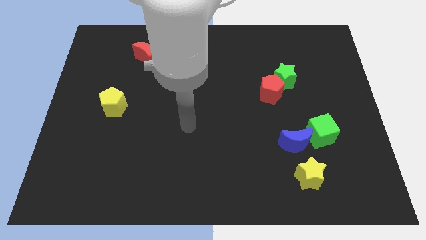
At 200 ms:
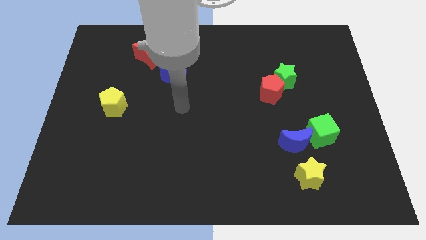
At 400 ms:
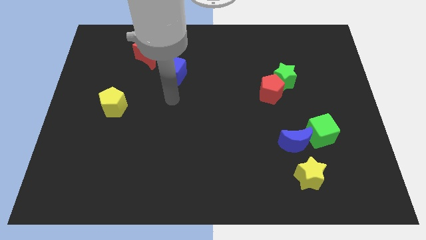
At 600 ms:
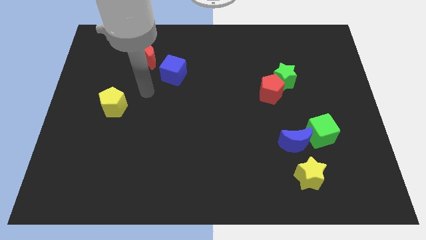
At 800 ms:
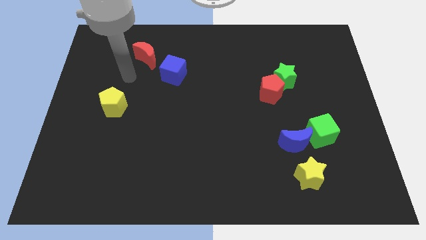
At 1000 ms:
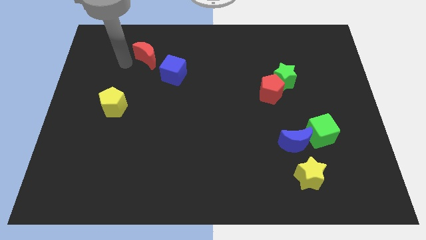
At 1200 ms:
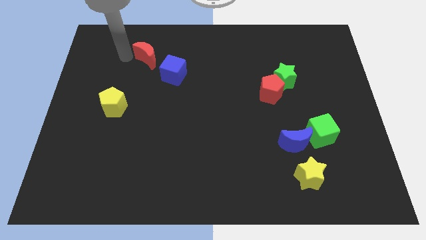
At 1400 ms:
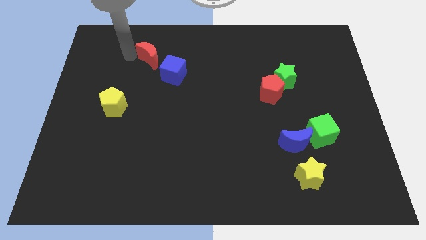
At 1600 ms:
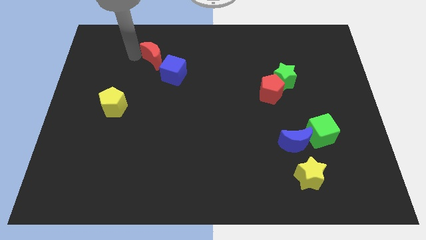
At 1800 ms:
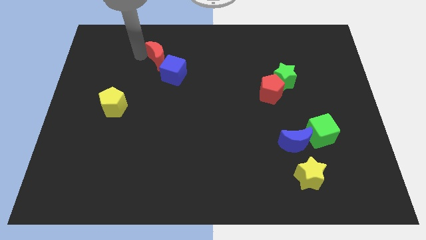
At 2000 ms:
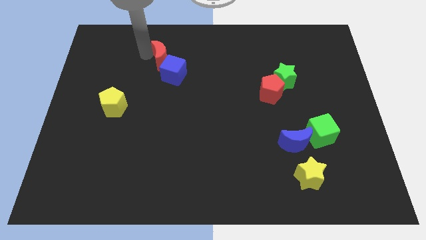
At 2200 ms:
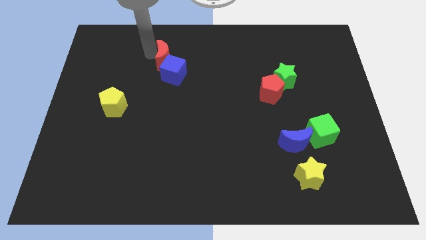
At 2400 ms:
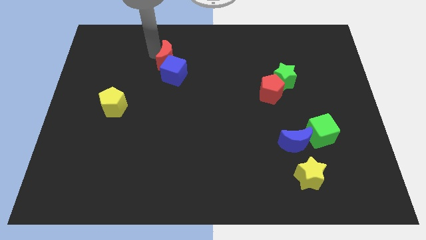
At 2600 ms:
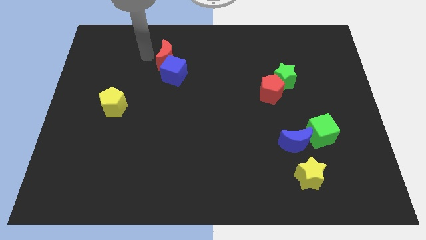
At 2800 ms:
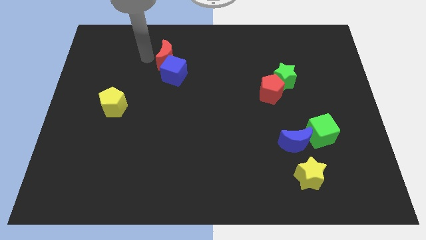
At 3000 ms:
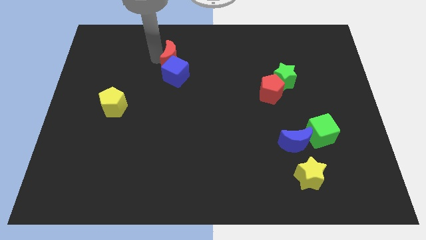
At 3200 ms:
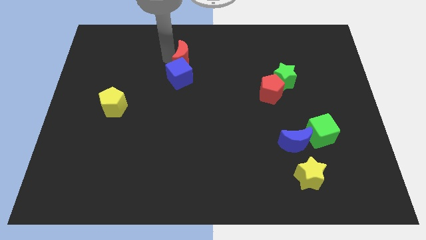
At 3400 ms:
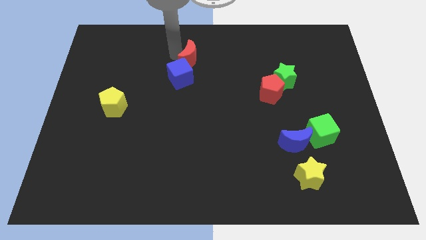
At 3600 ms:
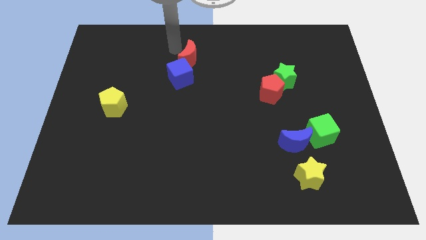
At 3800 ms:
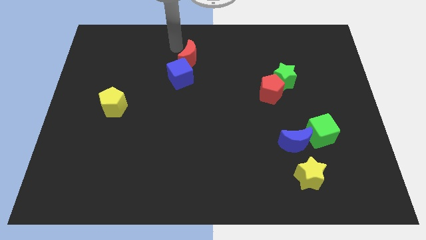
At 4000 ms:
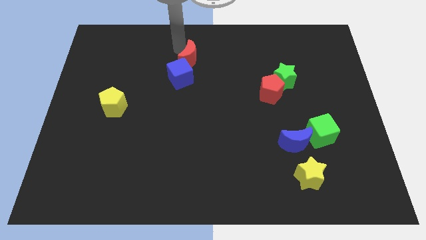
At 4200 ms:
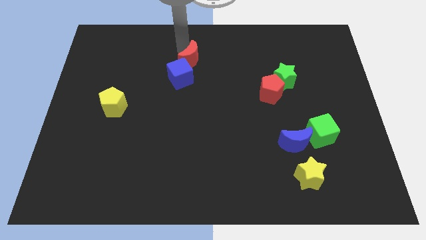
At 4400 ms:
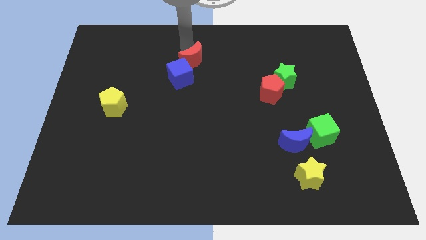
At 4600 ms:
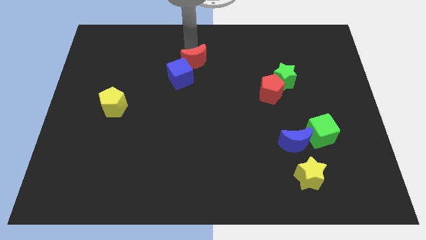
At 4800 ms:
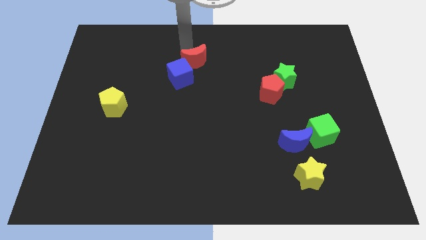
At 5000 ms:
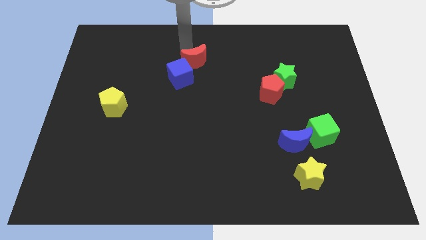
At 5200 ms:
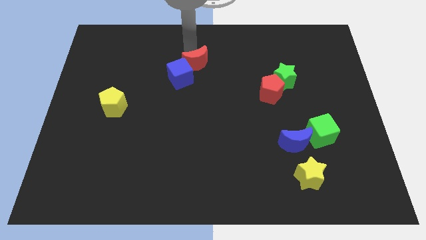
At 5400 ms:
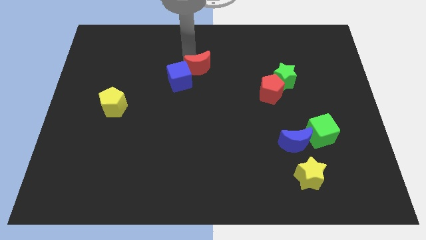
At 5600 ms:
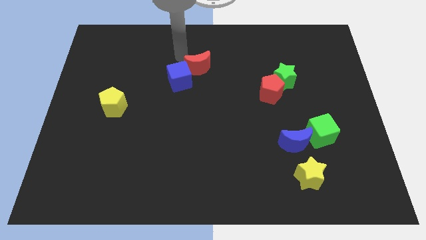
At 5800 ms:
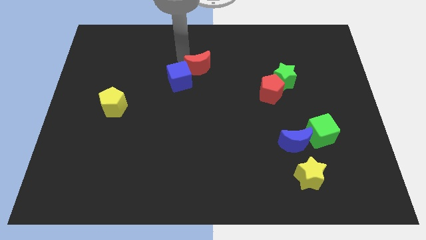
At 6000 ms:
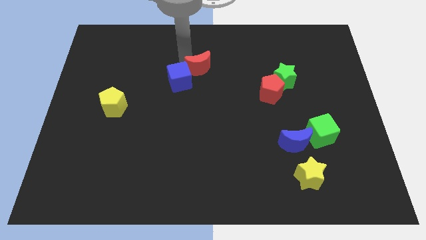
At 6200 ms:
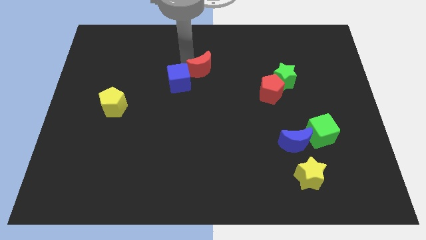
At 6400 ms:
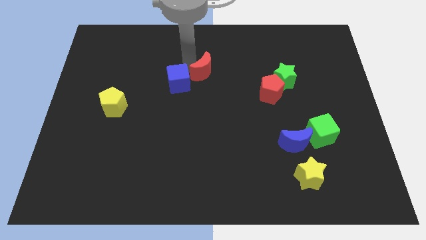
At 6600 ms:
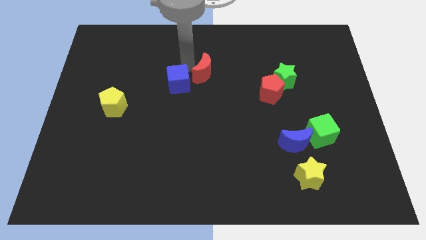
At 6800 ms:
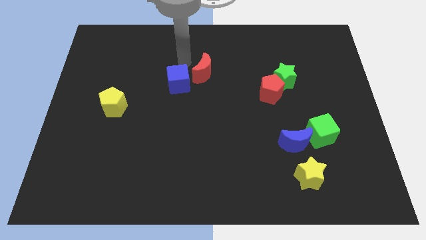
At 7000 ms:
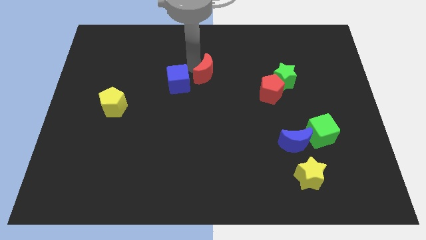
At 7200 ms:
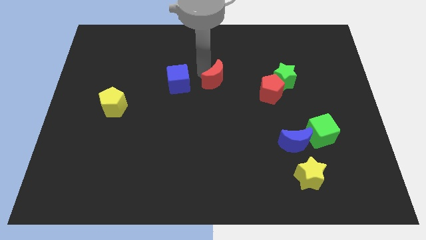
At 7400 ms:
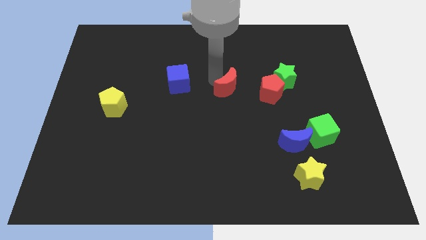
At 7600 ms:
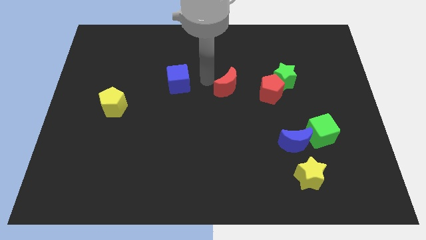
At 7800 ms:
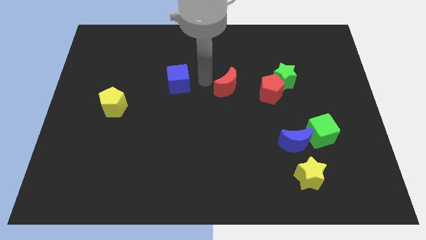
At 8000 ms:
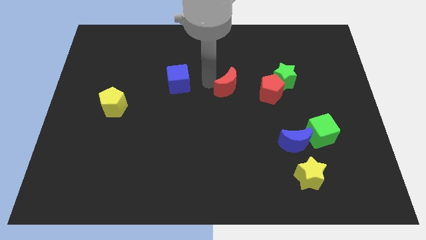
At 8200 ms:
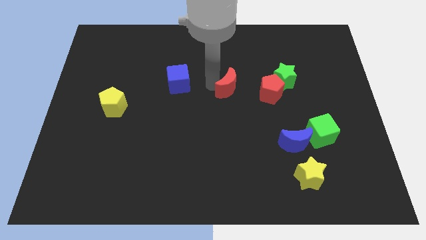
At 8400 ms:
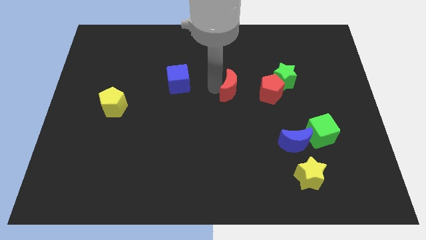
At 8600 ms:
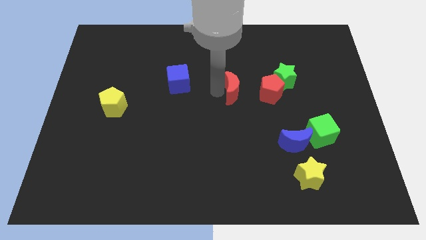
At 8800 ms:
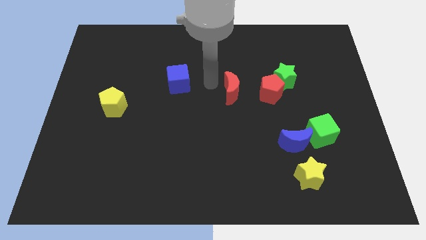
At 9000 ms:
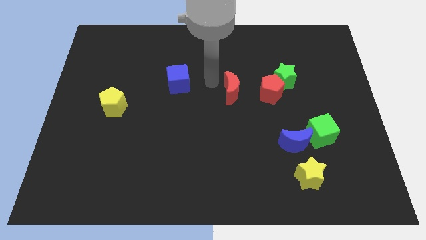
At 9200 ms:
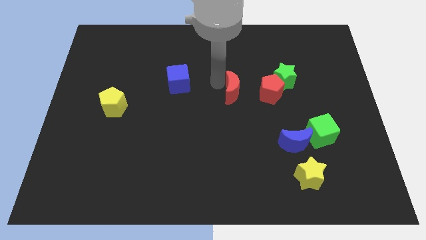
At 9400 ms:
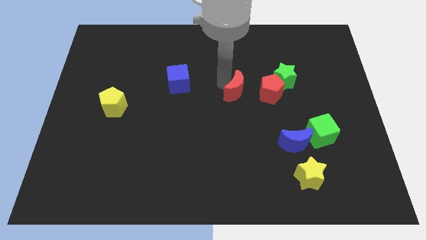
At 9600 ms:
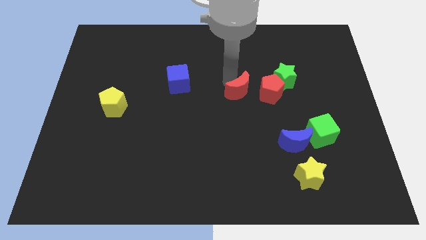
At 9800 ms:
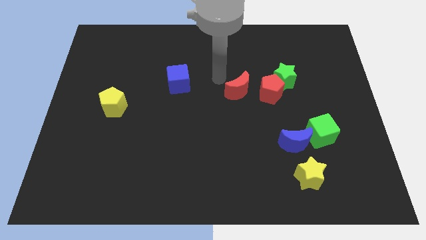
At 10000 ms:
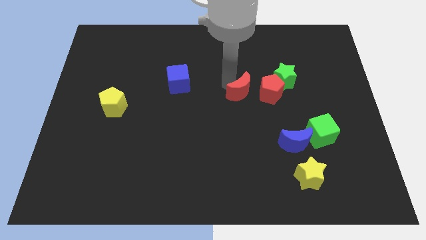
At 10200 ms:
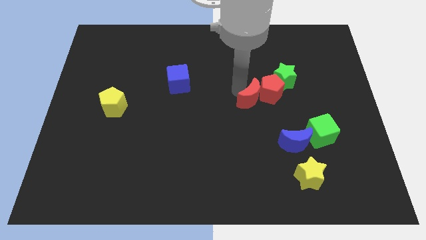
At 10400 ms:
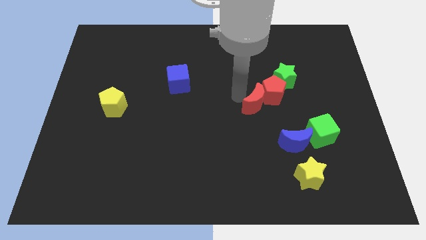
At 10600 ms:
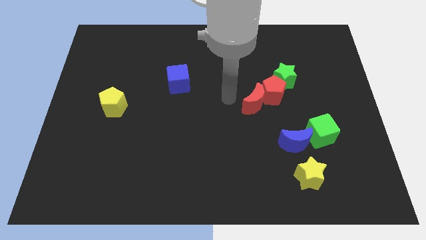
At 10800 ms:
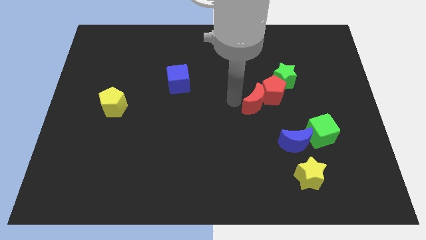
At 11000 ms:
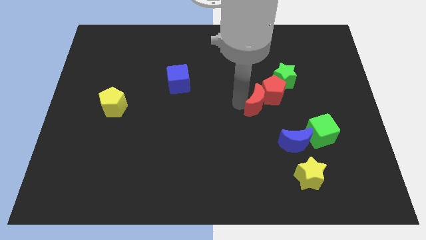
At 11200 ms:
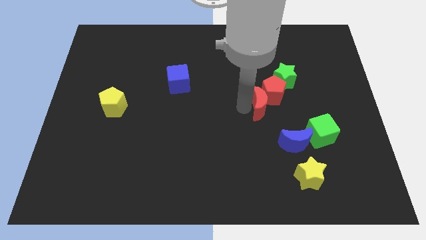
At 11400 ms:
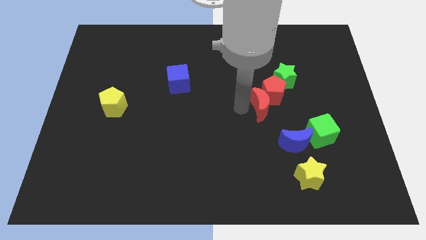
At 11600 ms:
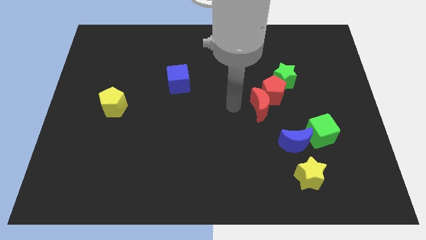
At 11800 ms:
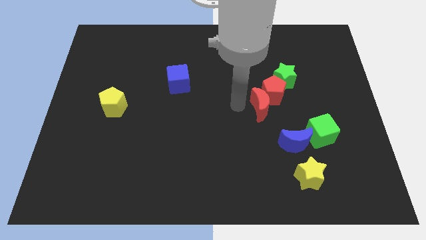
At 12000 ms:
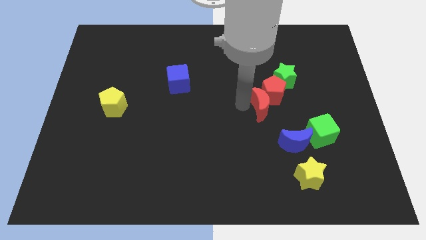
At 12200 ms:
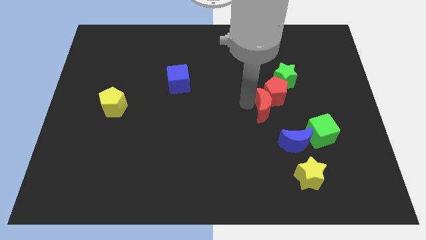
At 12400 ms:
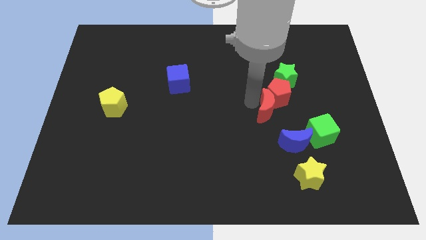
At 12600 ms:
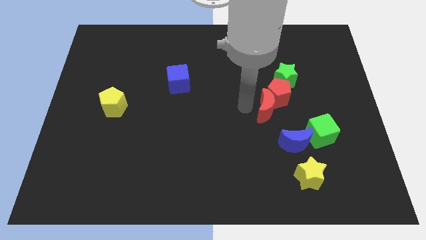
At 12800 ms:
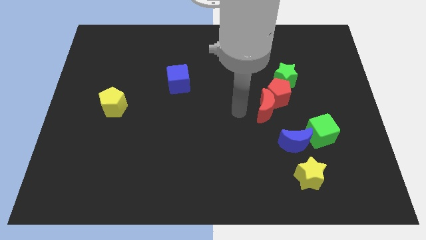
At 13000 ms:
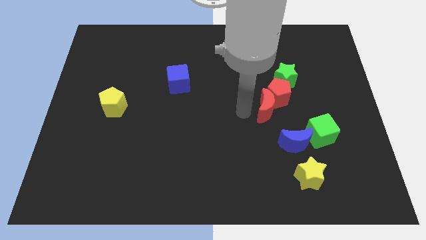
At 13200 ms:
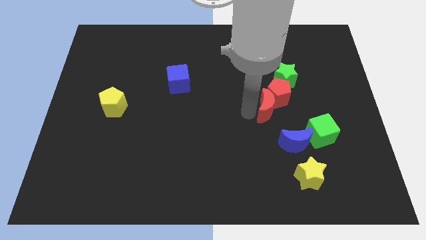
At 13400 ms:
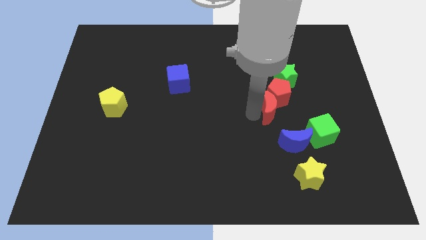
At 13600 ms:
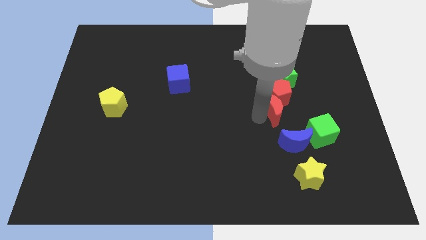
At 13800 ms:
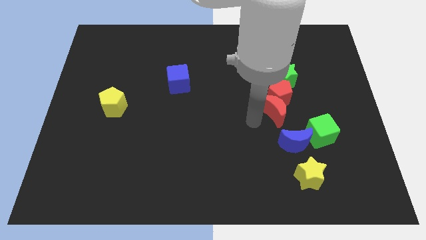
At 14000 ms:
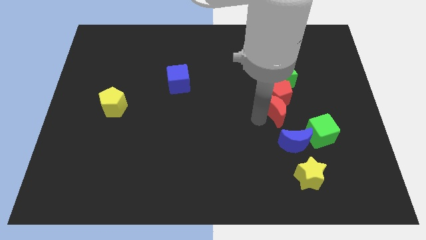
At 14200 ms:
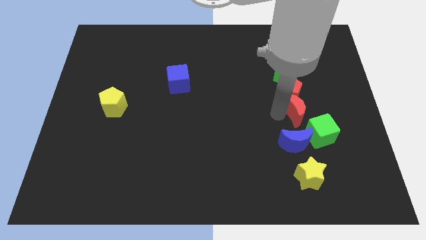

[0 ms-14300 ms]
push the red moon above the green cube

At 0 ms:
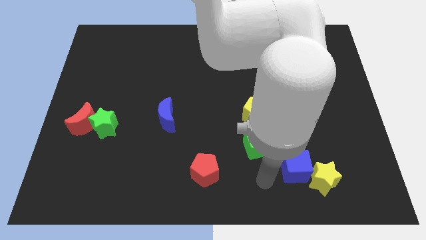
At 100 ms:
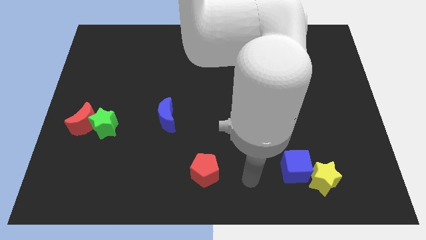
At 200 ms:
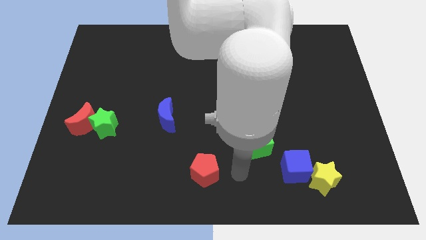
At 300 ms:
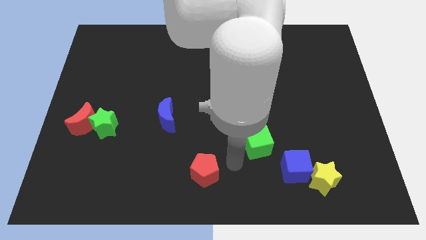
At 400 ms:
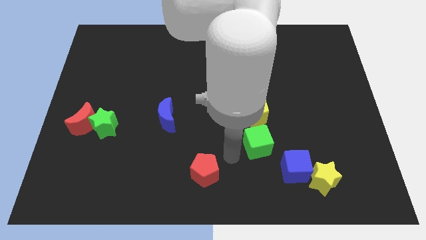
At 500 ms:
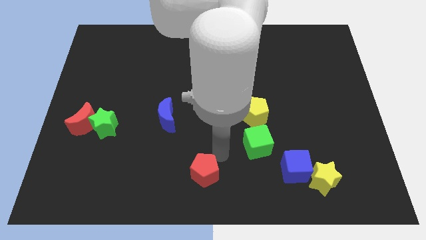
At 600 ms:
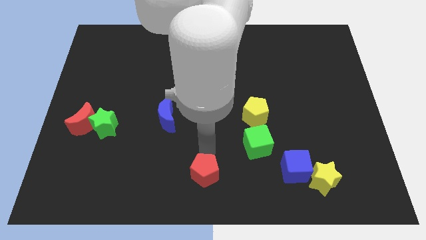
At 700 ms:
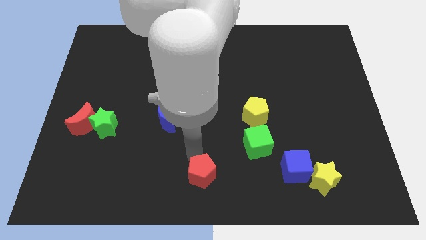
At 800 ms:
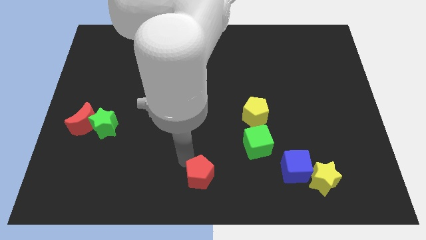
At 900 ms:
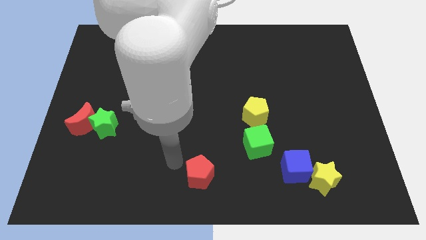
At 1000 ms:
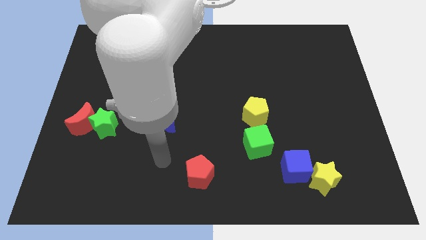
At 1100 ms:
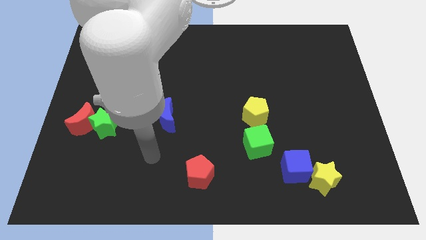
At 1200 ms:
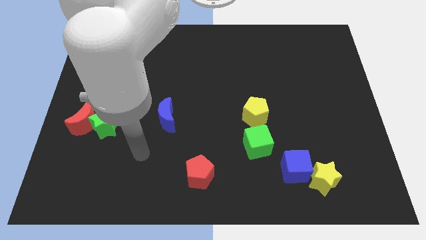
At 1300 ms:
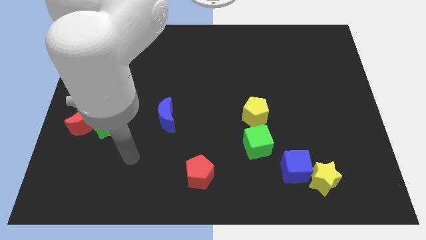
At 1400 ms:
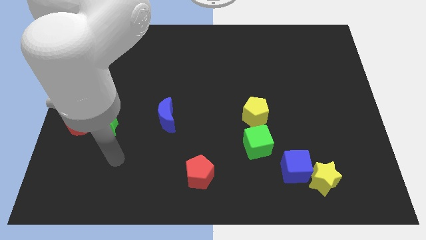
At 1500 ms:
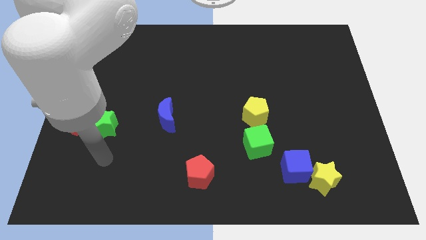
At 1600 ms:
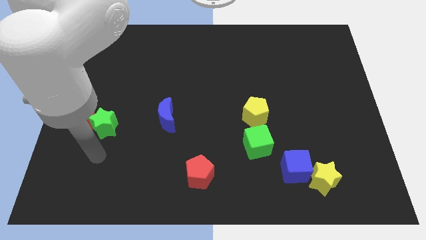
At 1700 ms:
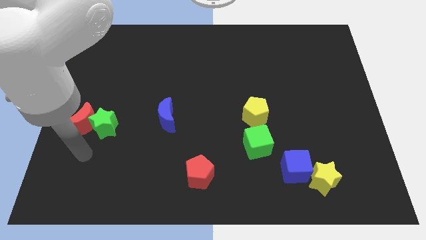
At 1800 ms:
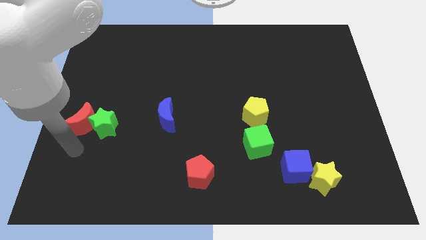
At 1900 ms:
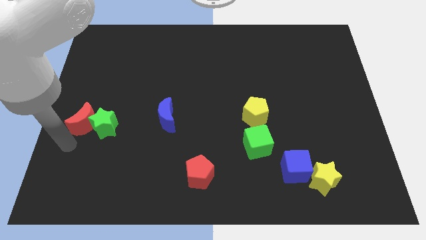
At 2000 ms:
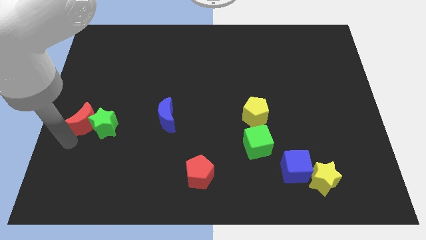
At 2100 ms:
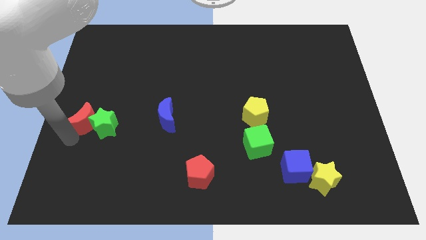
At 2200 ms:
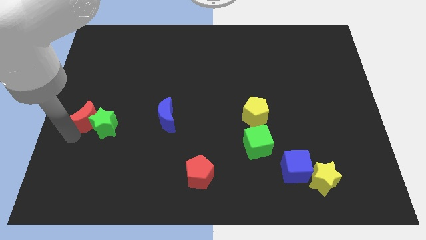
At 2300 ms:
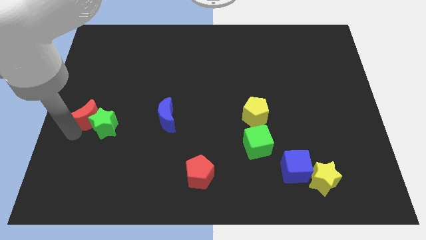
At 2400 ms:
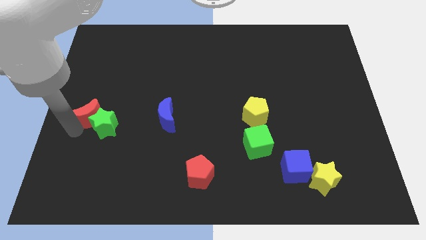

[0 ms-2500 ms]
move the red moon to the top of the green star
